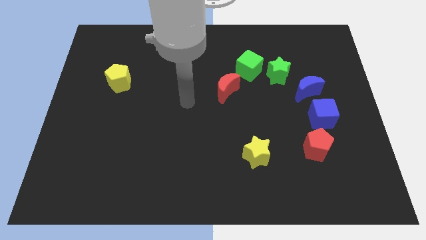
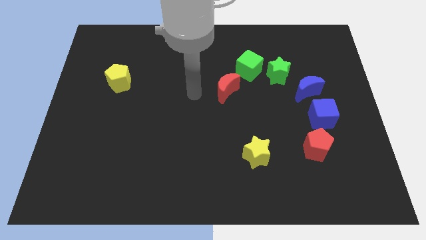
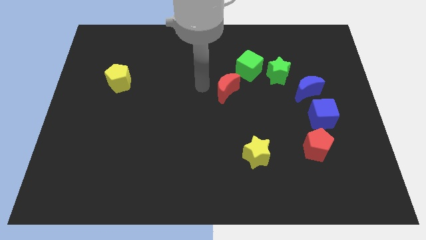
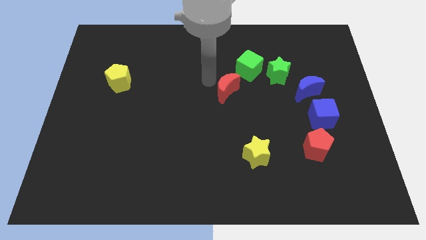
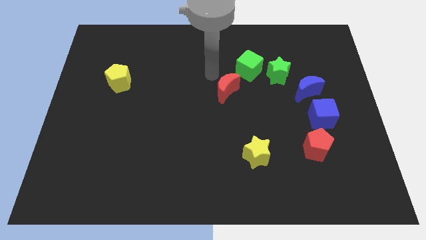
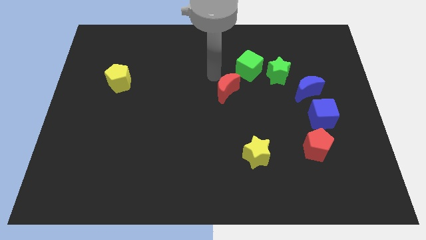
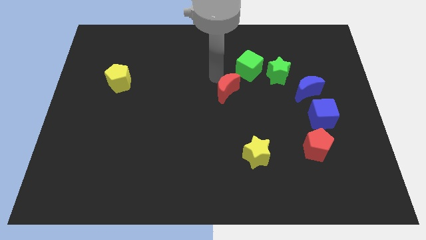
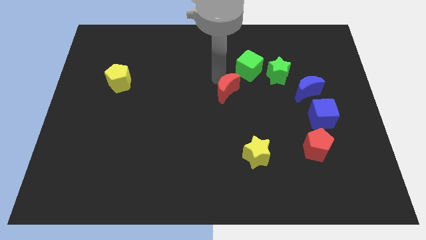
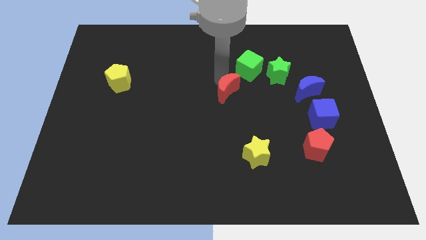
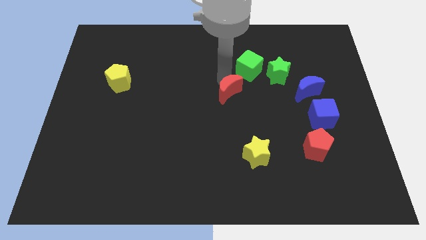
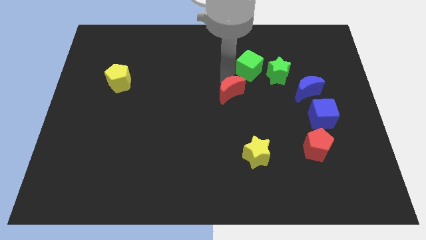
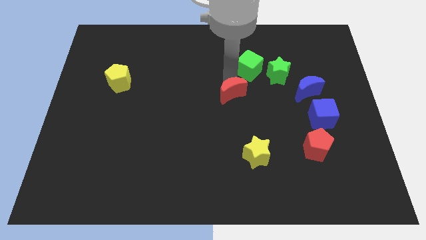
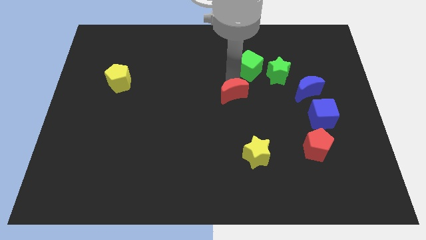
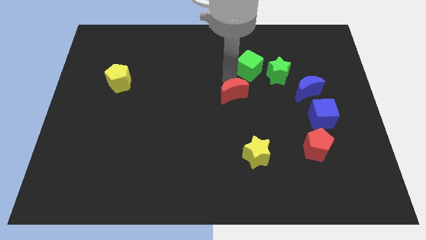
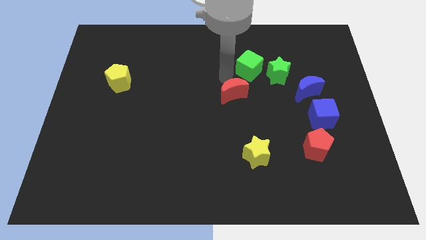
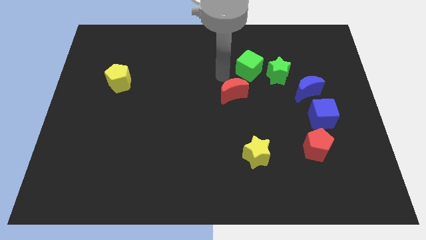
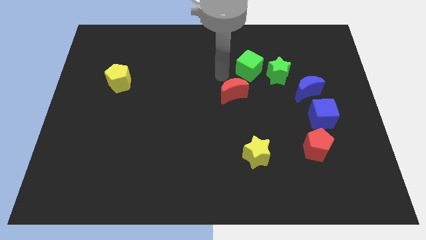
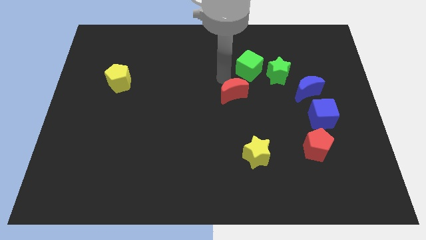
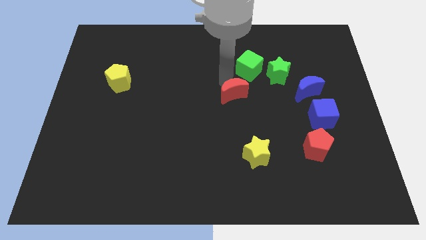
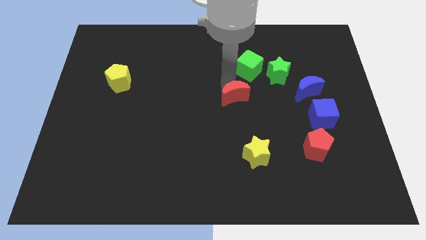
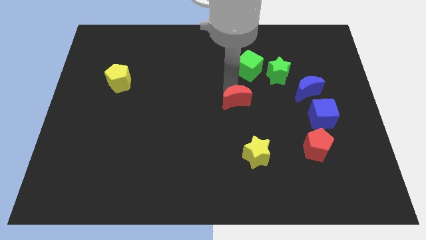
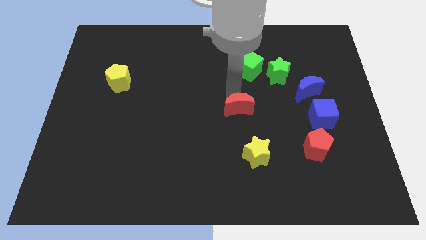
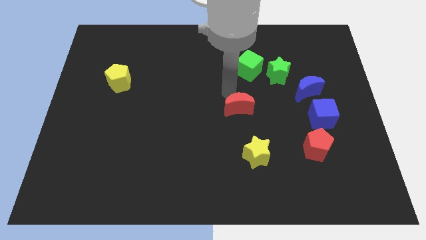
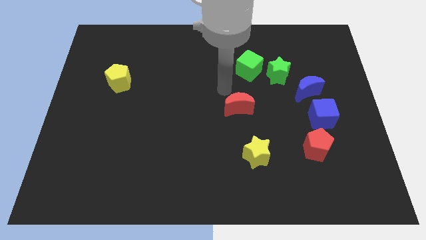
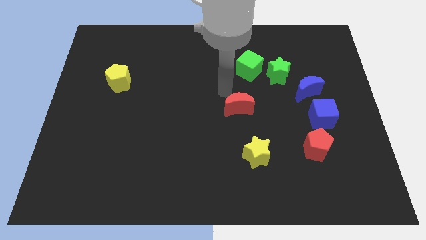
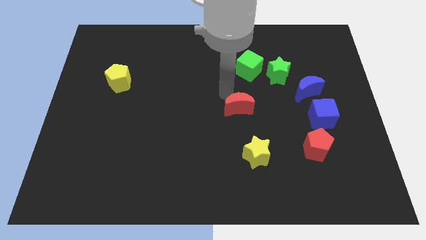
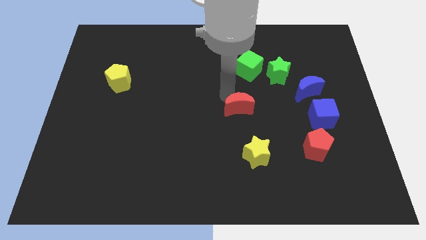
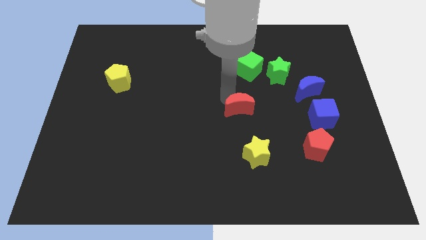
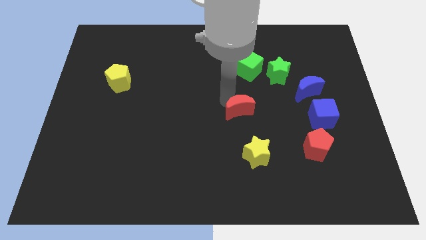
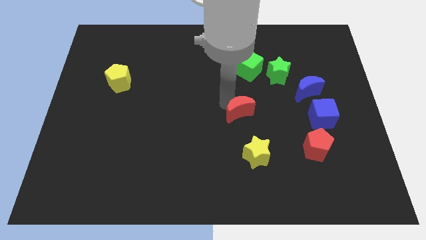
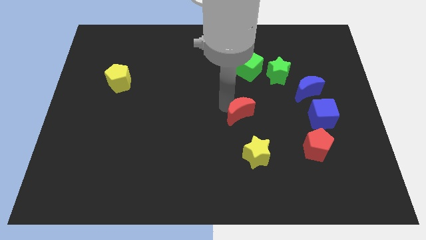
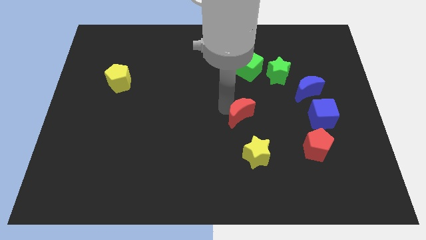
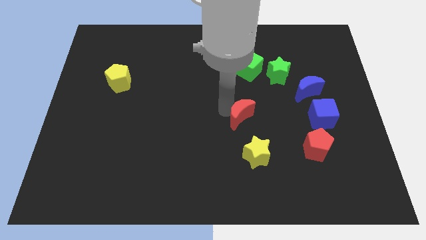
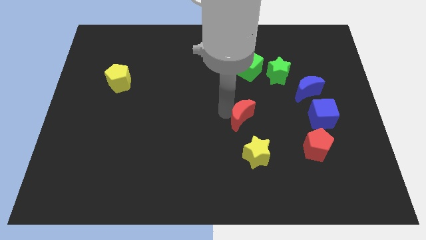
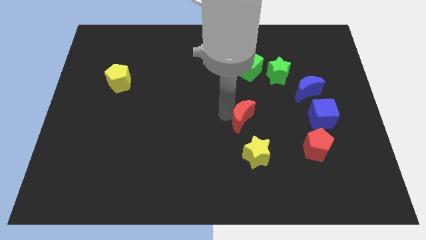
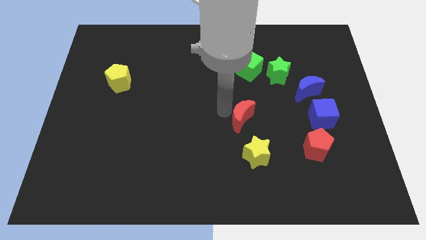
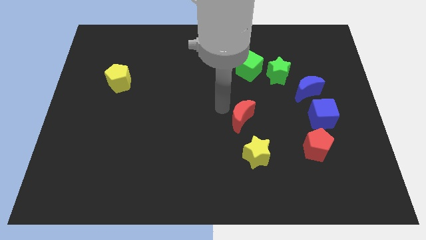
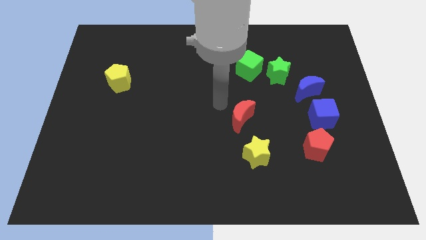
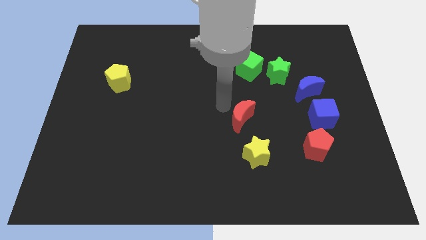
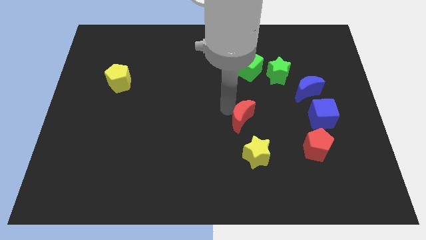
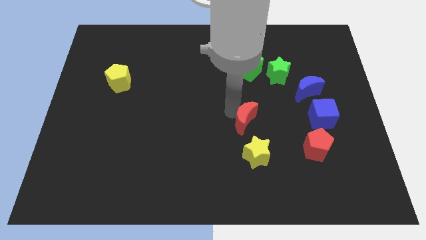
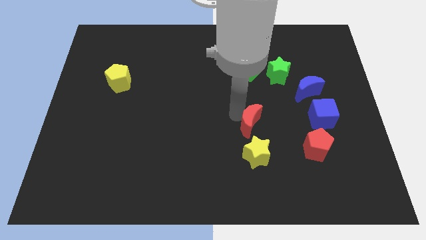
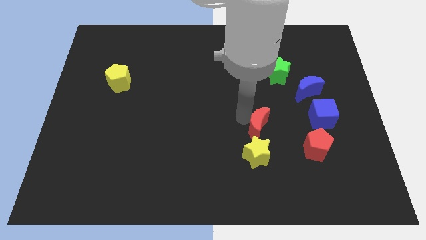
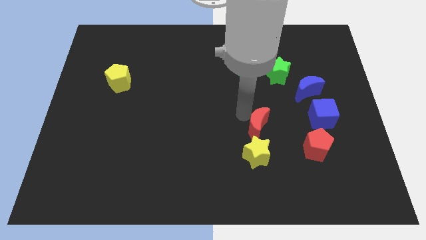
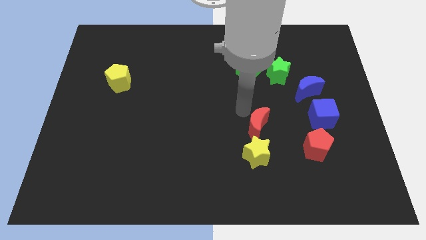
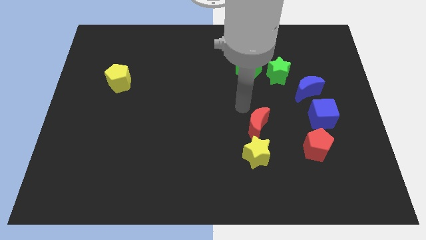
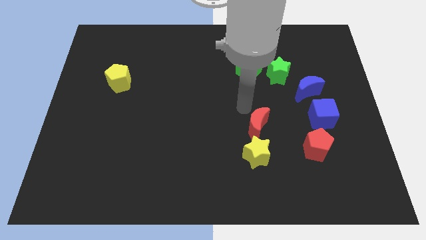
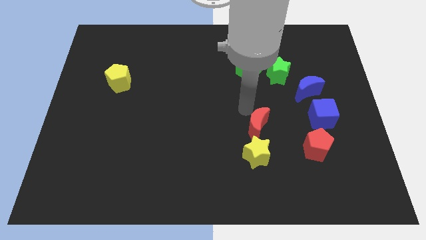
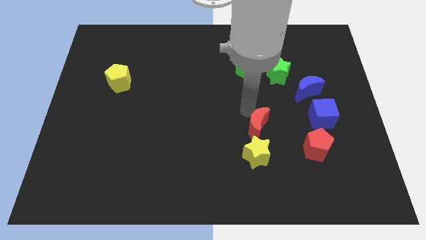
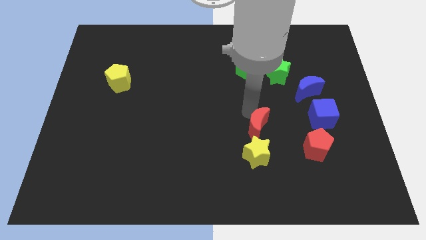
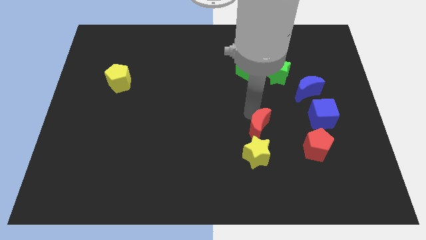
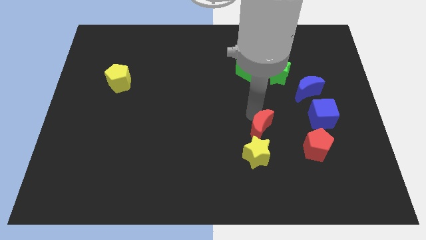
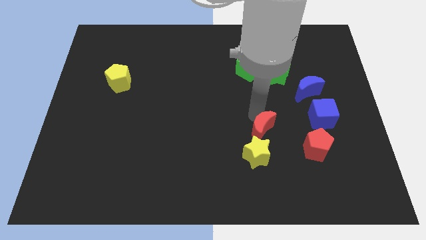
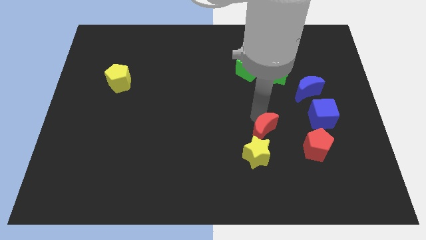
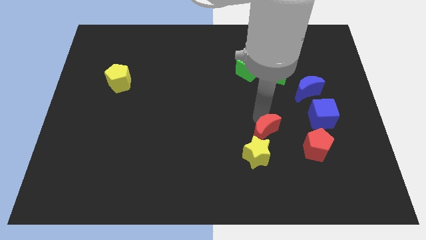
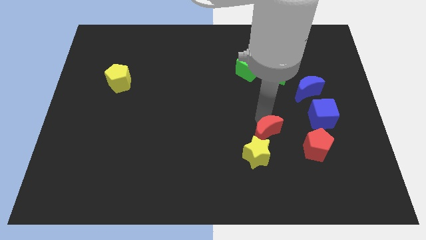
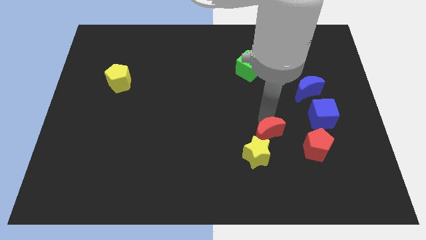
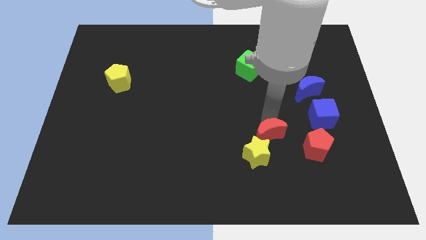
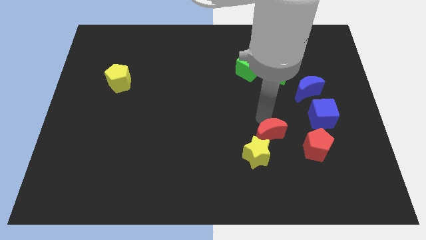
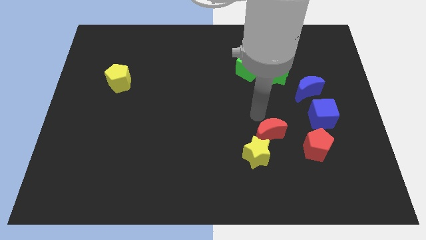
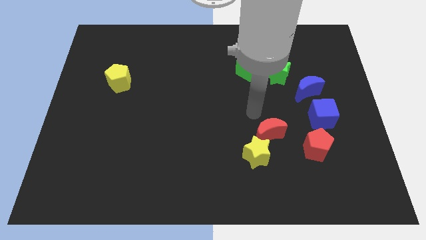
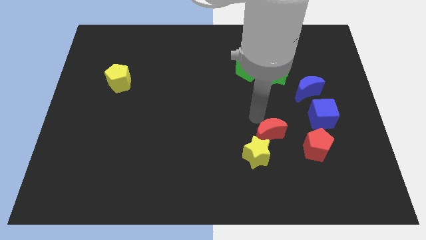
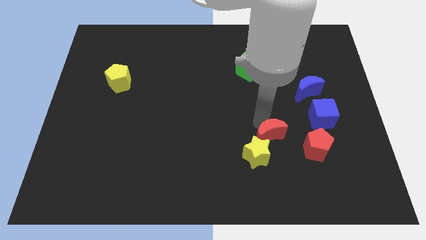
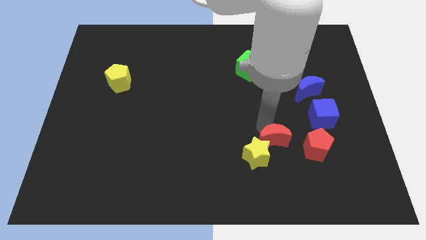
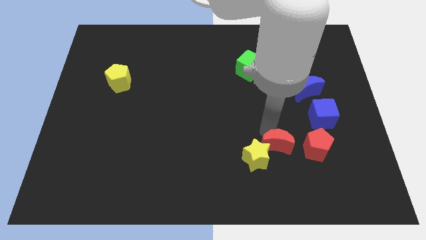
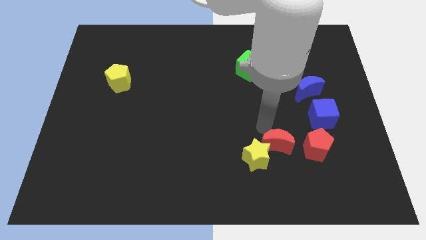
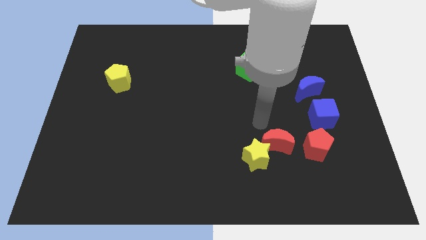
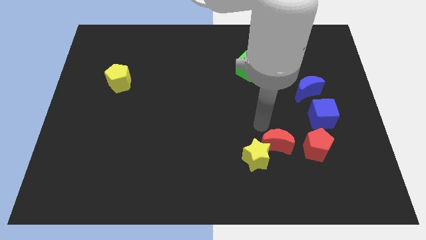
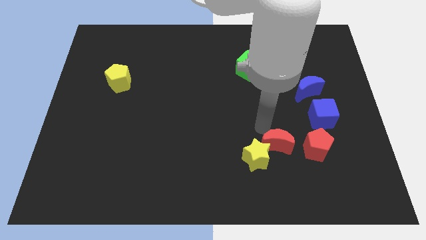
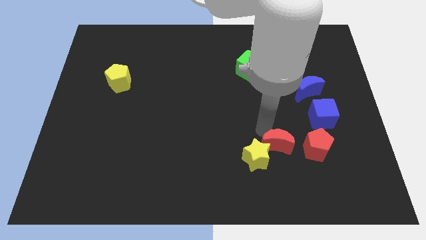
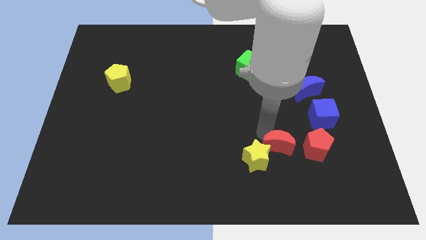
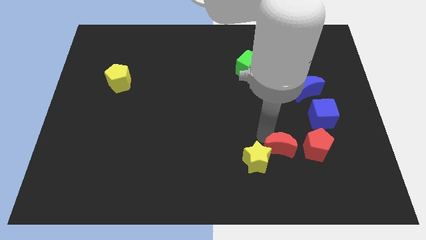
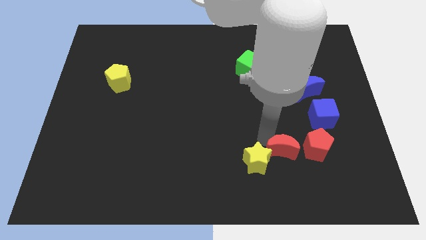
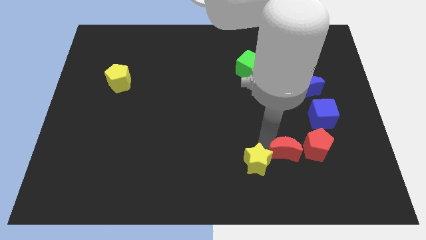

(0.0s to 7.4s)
move the red moon diagonally down and to the left of the red pentagon
